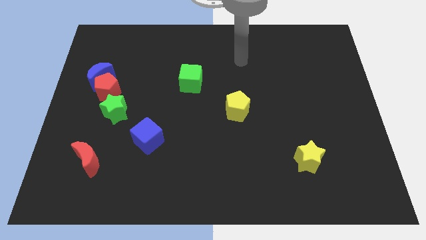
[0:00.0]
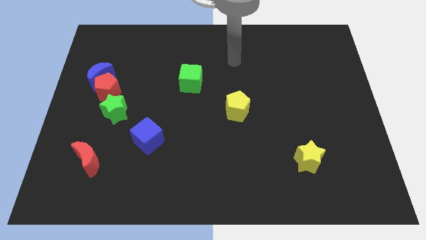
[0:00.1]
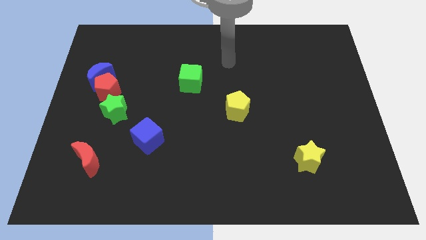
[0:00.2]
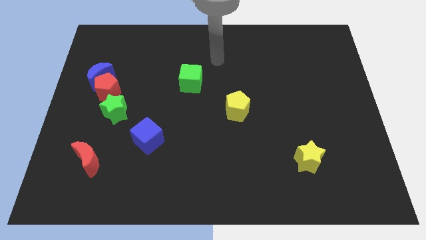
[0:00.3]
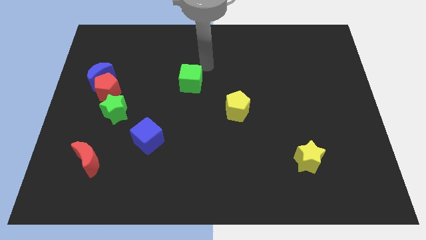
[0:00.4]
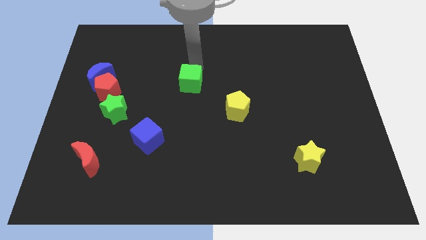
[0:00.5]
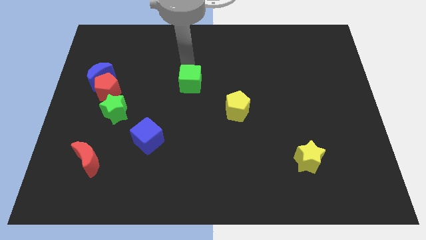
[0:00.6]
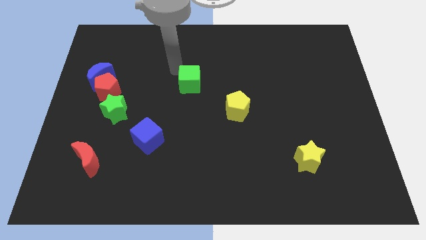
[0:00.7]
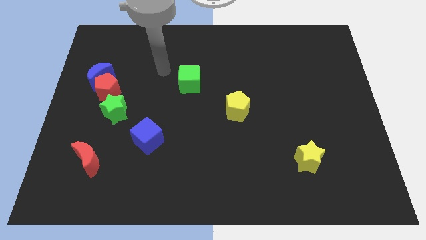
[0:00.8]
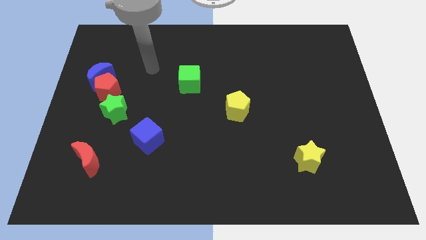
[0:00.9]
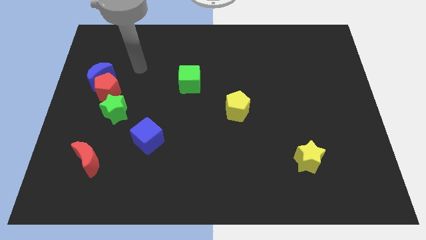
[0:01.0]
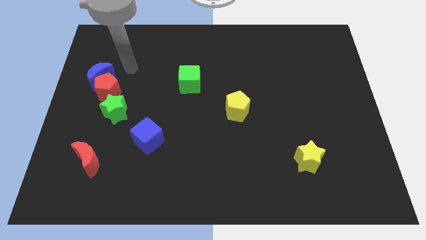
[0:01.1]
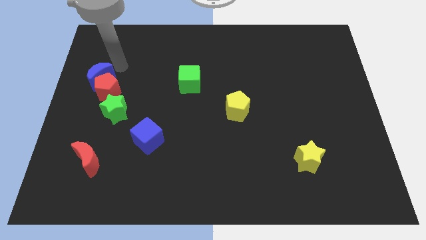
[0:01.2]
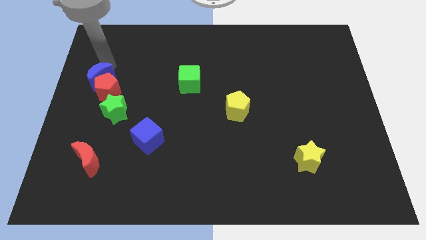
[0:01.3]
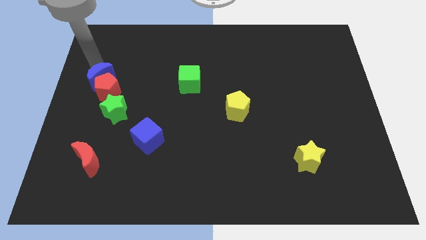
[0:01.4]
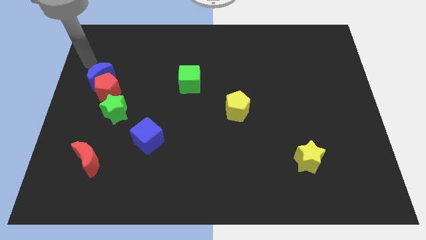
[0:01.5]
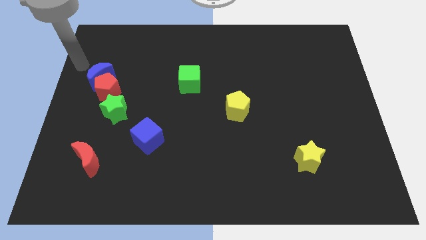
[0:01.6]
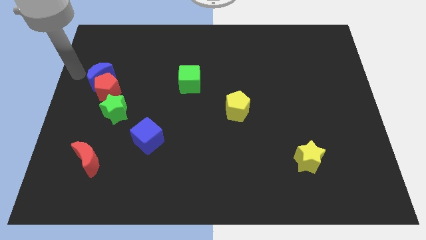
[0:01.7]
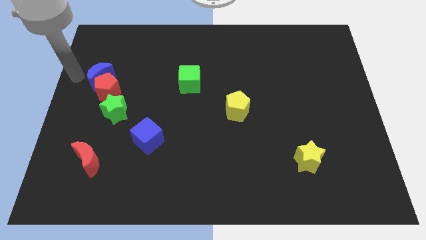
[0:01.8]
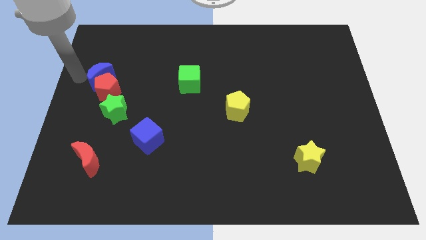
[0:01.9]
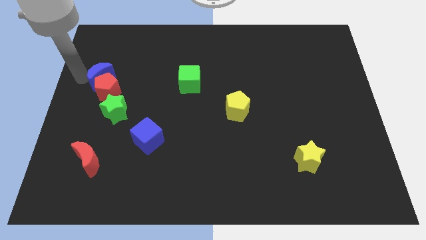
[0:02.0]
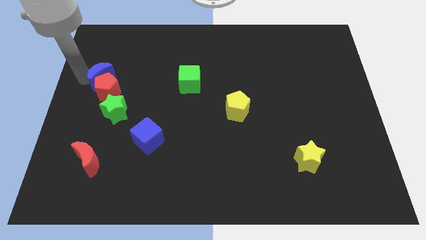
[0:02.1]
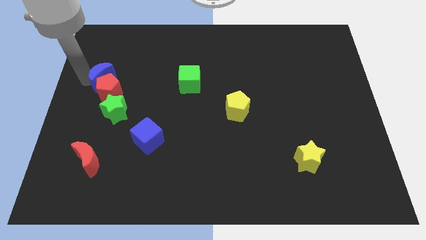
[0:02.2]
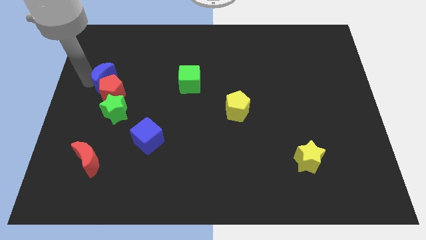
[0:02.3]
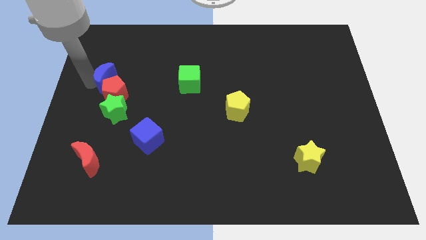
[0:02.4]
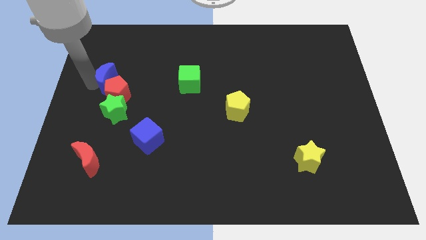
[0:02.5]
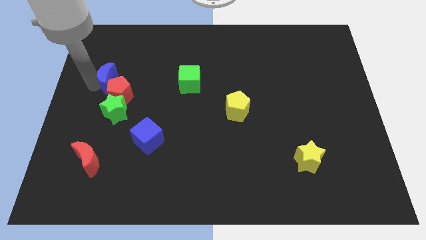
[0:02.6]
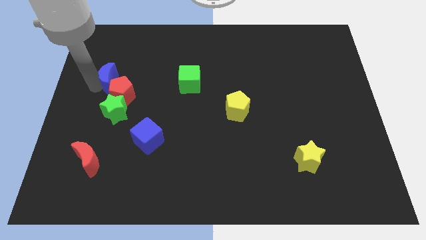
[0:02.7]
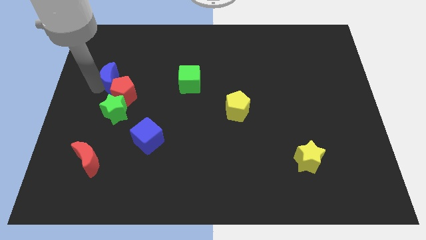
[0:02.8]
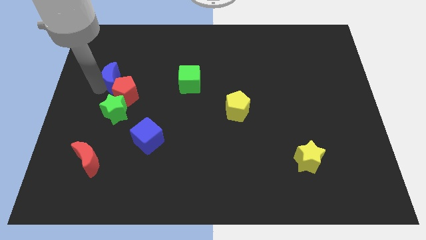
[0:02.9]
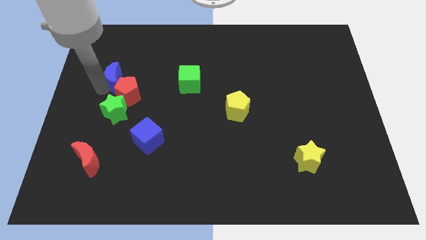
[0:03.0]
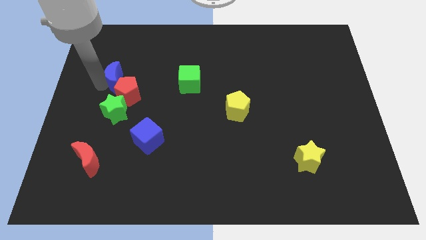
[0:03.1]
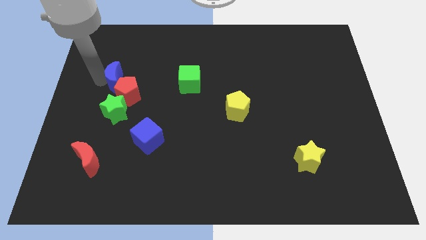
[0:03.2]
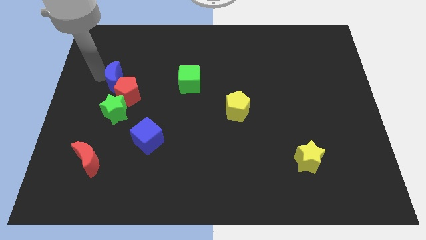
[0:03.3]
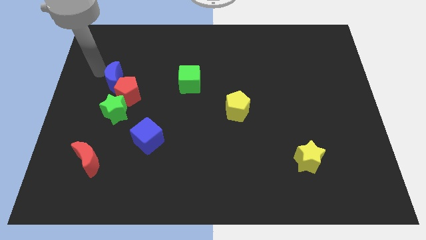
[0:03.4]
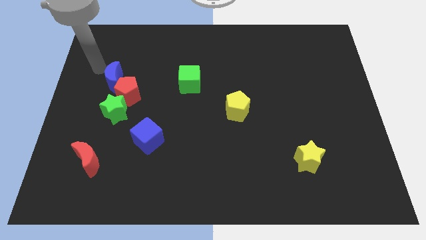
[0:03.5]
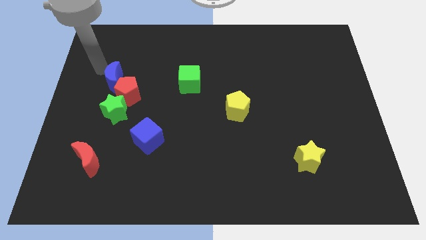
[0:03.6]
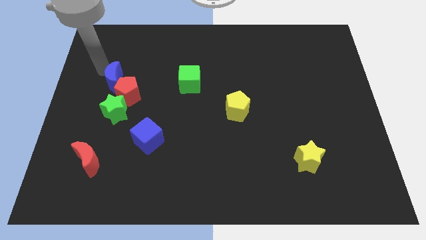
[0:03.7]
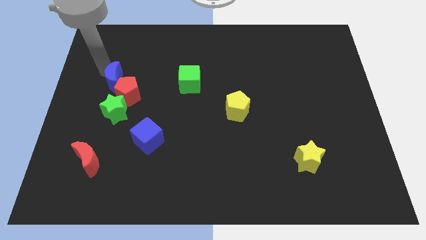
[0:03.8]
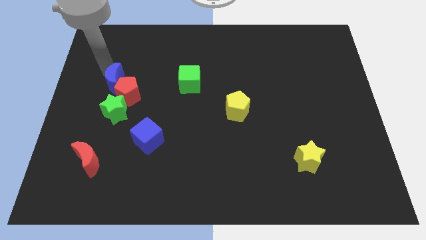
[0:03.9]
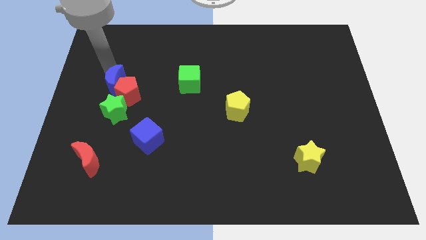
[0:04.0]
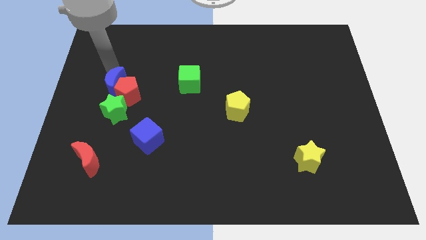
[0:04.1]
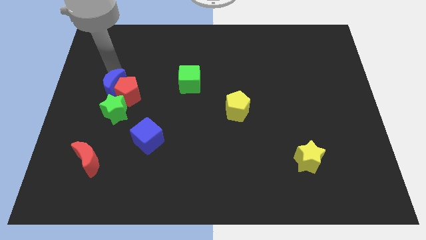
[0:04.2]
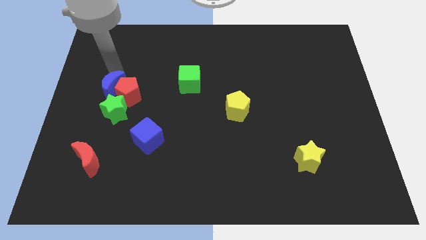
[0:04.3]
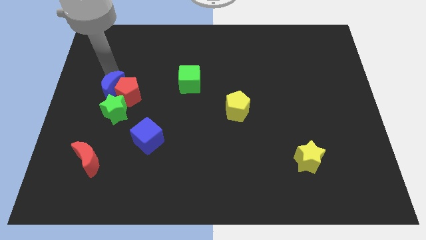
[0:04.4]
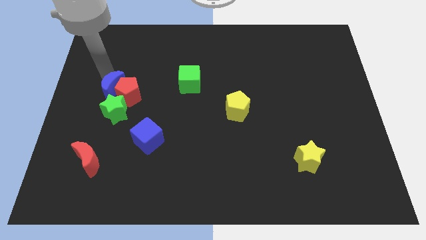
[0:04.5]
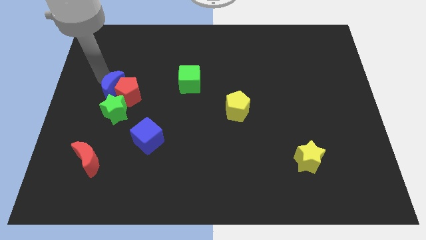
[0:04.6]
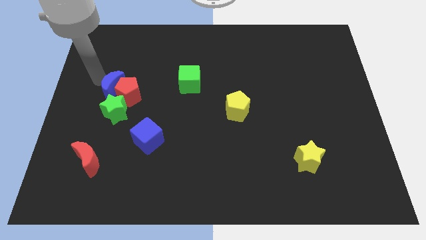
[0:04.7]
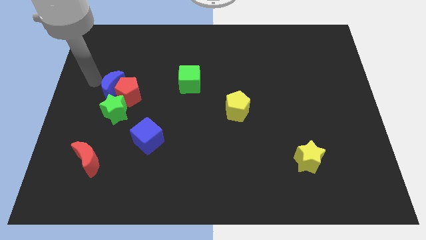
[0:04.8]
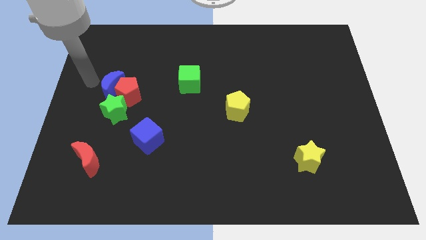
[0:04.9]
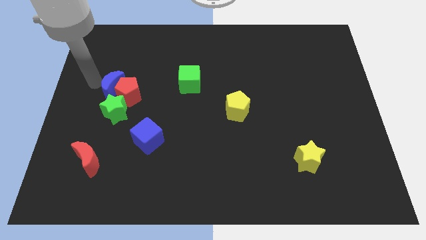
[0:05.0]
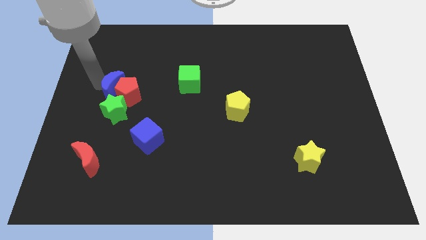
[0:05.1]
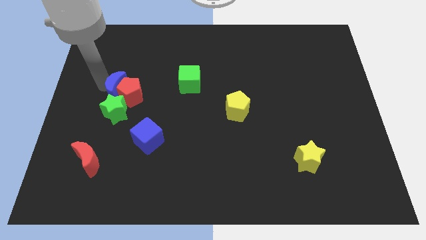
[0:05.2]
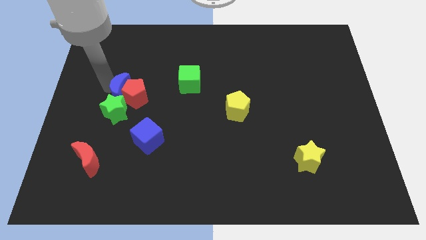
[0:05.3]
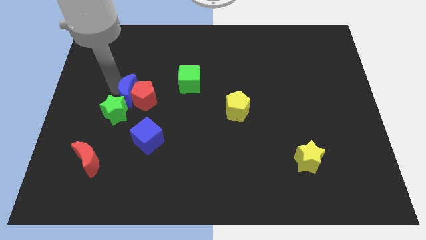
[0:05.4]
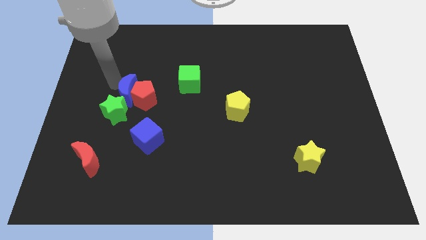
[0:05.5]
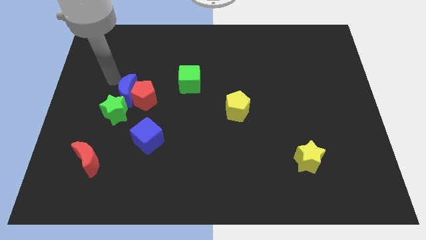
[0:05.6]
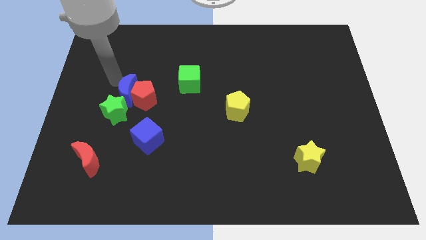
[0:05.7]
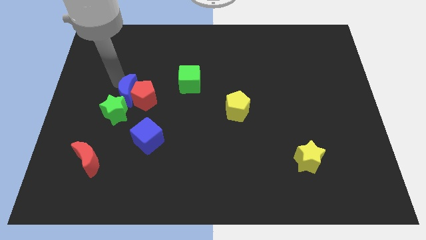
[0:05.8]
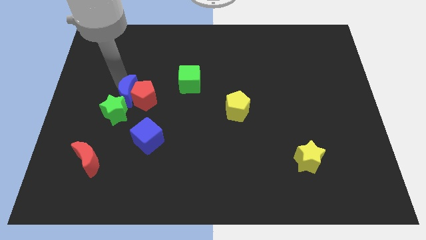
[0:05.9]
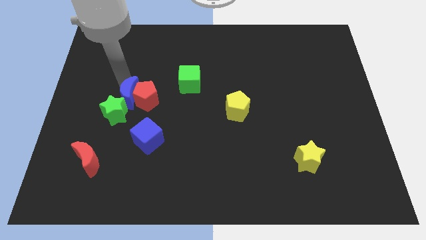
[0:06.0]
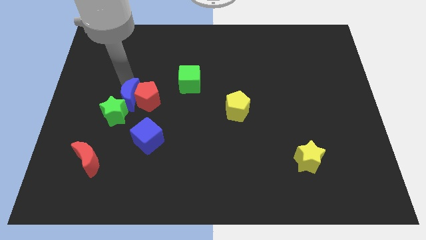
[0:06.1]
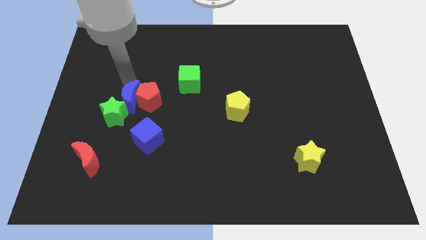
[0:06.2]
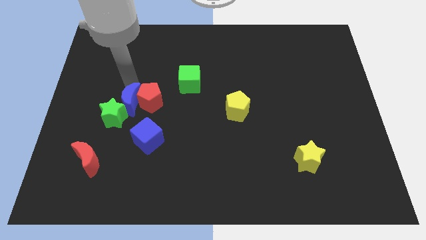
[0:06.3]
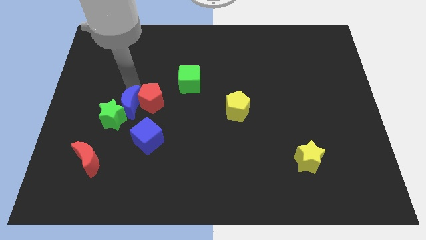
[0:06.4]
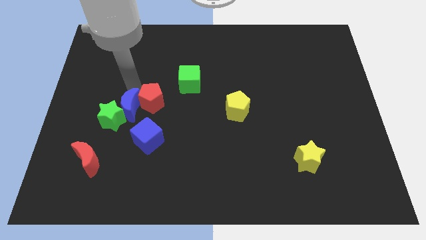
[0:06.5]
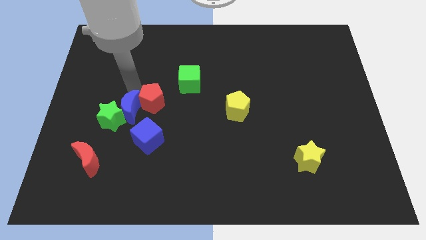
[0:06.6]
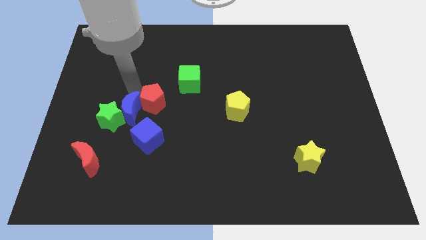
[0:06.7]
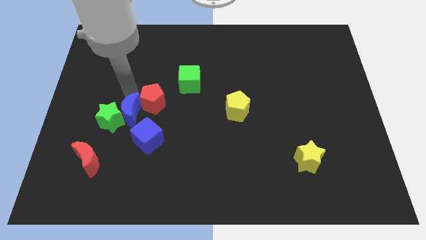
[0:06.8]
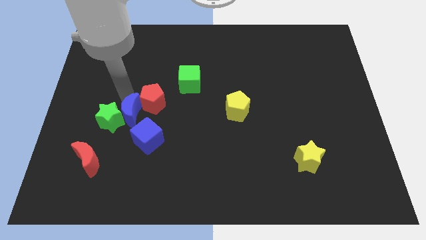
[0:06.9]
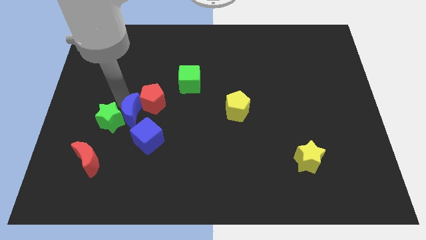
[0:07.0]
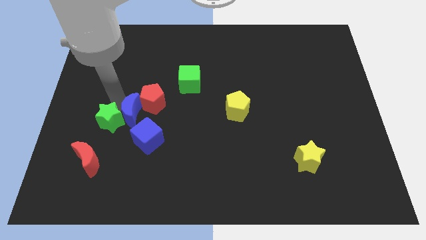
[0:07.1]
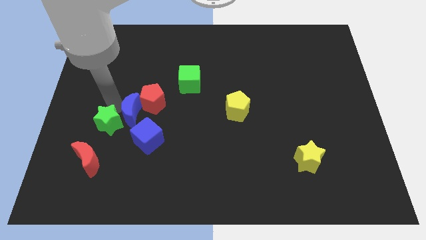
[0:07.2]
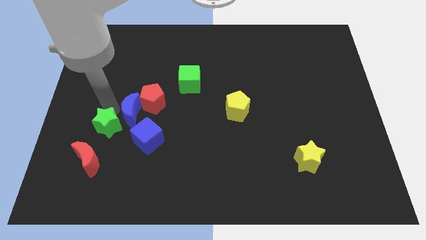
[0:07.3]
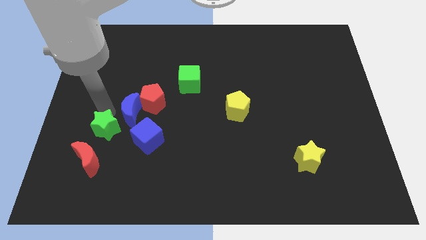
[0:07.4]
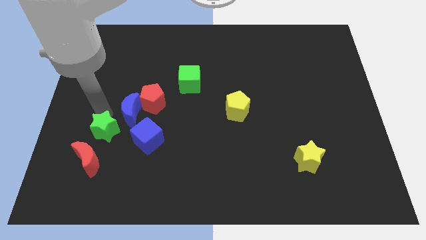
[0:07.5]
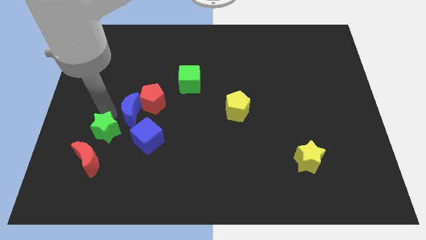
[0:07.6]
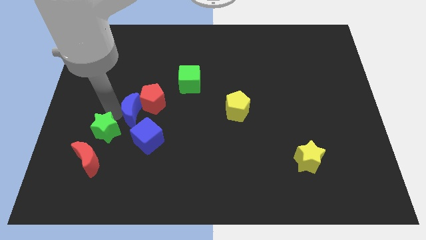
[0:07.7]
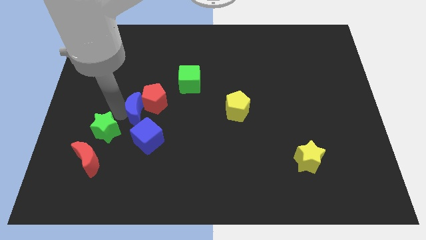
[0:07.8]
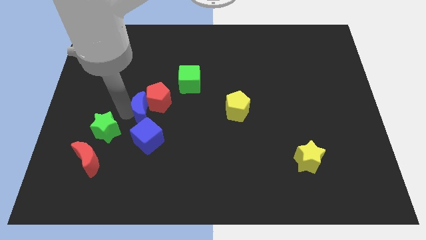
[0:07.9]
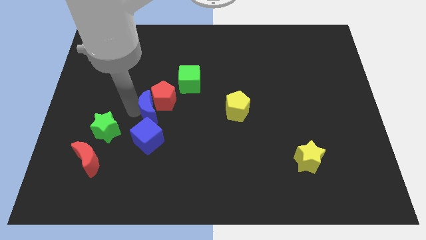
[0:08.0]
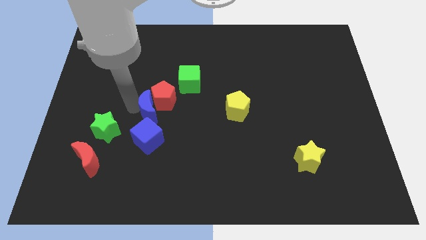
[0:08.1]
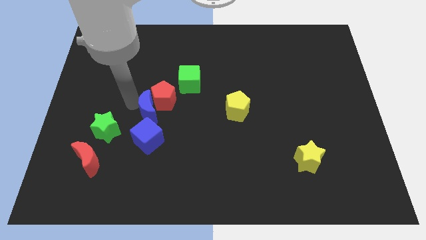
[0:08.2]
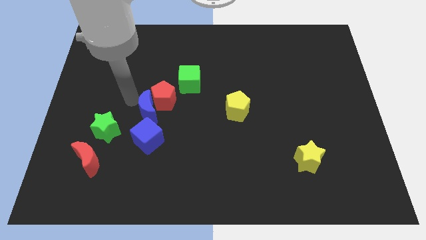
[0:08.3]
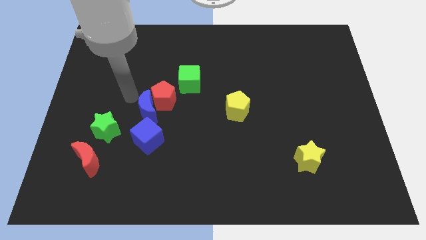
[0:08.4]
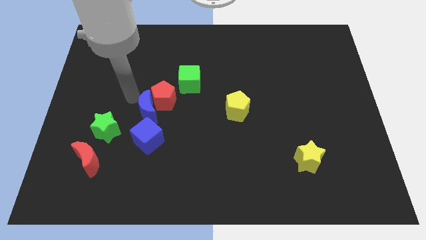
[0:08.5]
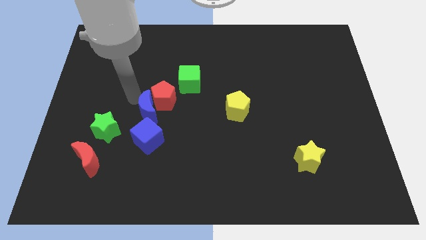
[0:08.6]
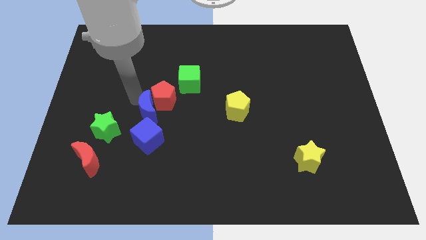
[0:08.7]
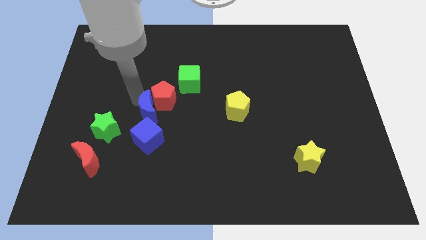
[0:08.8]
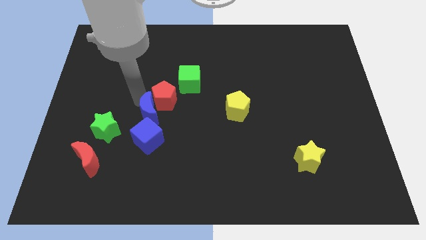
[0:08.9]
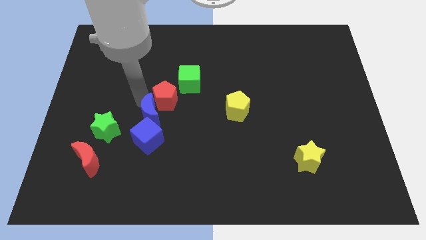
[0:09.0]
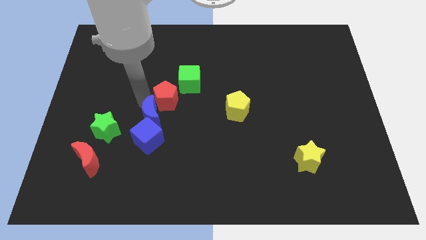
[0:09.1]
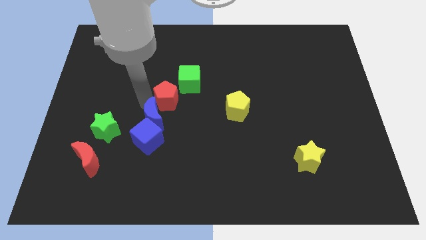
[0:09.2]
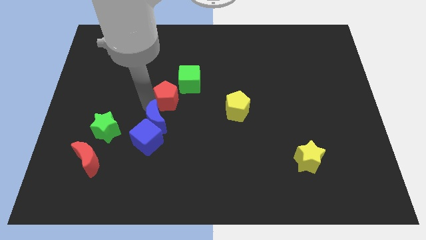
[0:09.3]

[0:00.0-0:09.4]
push the blue moon downwards and then to the right
